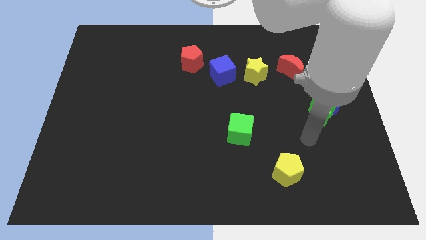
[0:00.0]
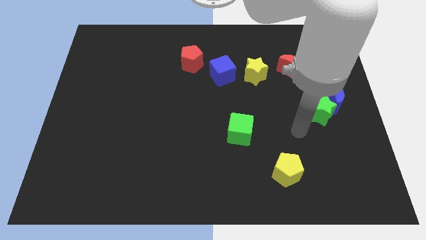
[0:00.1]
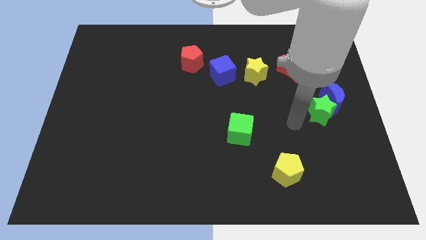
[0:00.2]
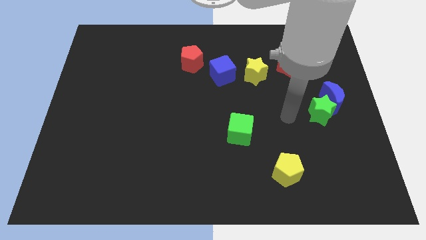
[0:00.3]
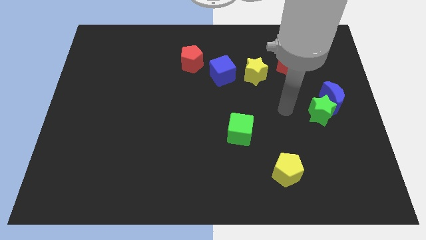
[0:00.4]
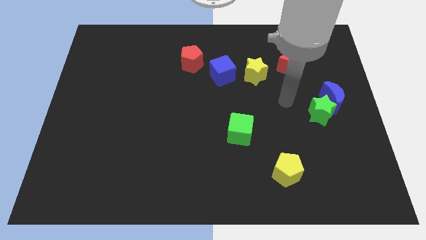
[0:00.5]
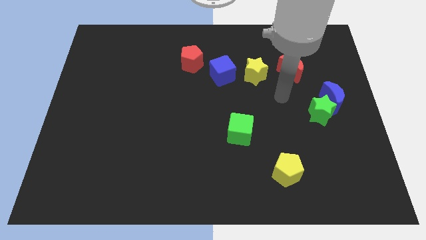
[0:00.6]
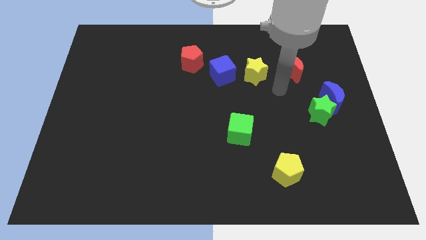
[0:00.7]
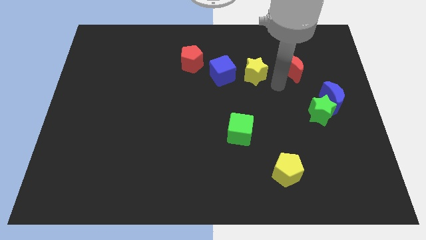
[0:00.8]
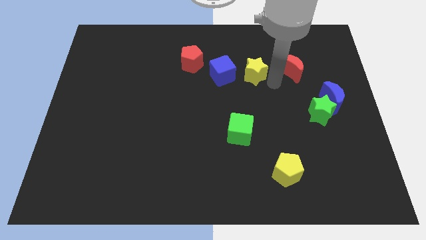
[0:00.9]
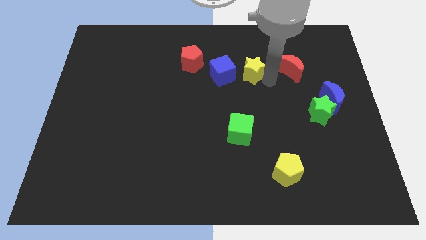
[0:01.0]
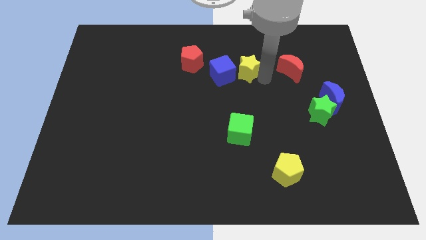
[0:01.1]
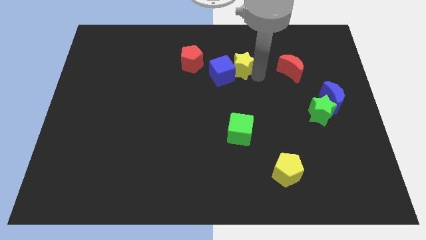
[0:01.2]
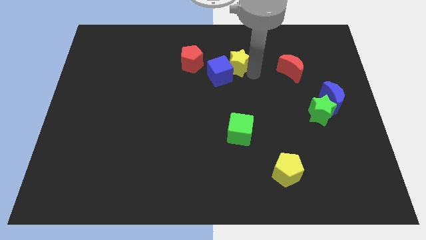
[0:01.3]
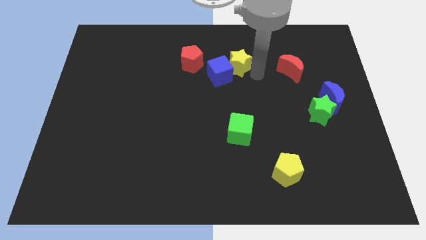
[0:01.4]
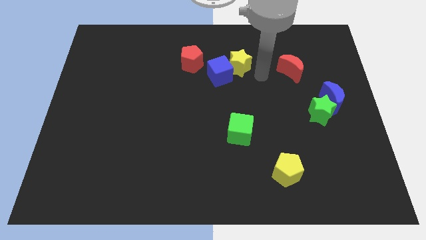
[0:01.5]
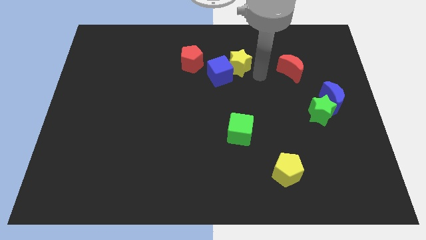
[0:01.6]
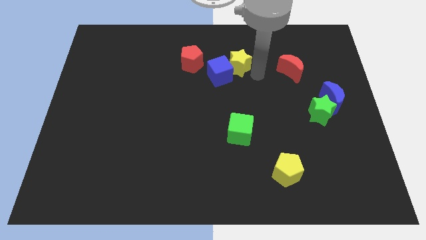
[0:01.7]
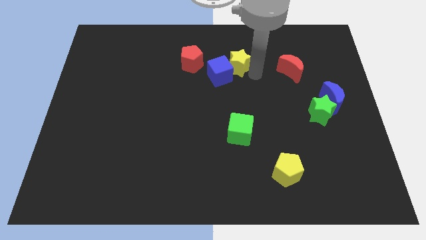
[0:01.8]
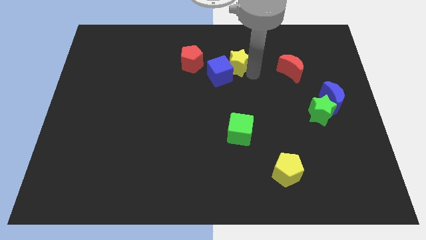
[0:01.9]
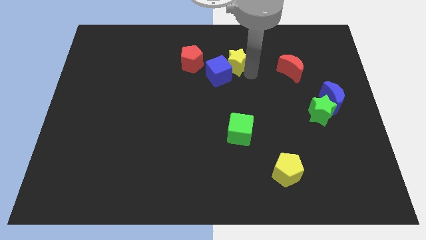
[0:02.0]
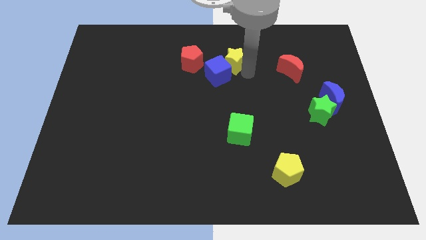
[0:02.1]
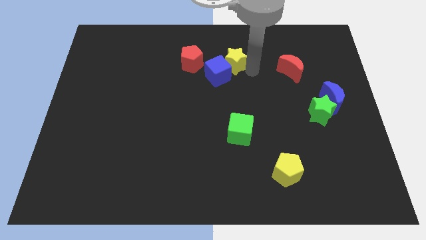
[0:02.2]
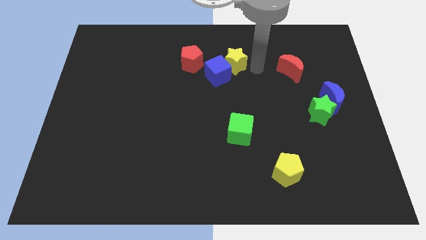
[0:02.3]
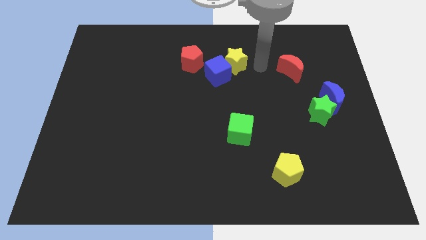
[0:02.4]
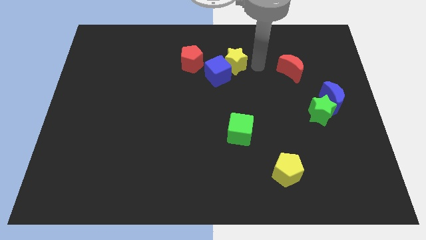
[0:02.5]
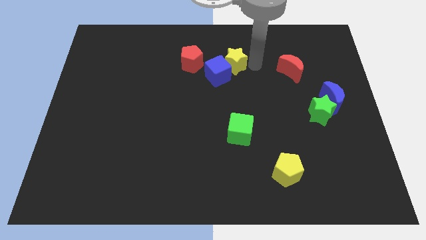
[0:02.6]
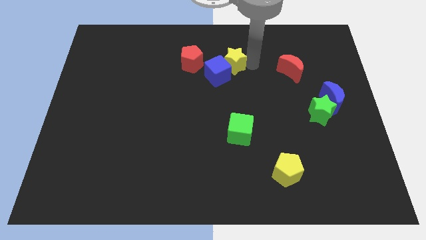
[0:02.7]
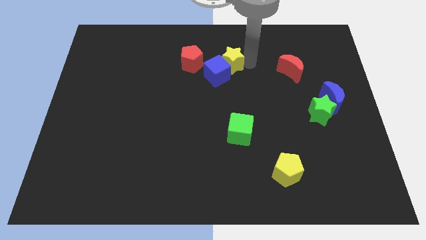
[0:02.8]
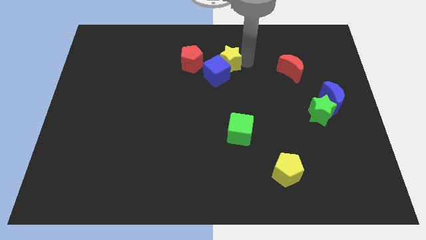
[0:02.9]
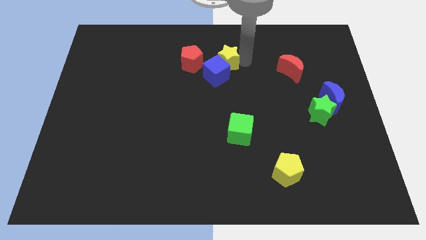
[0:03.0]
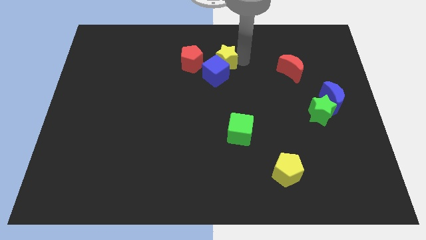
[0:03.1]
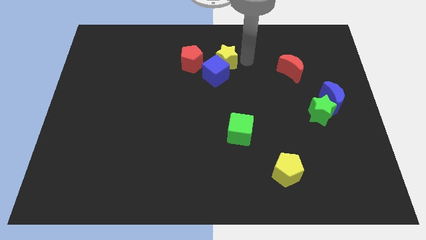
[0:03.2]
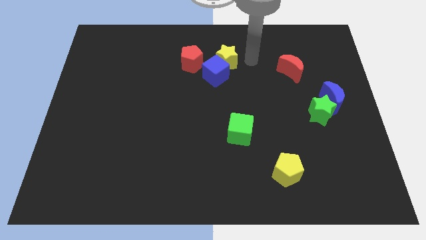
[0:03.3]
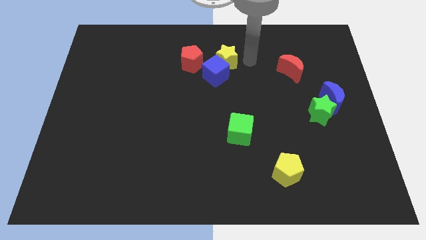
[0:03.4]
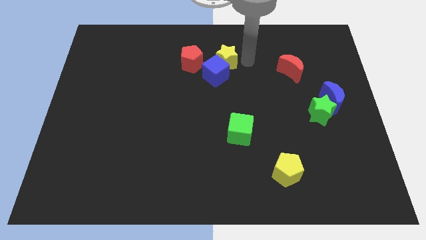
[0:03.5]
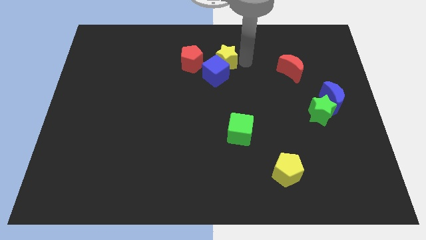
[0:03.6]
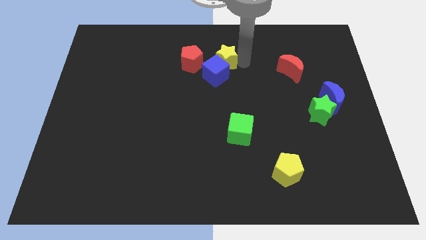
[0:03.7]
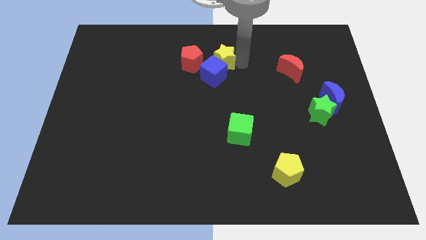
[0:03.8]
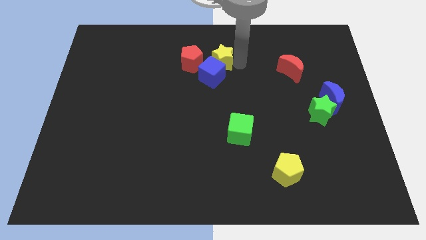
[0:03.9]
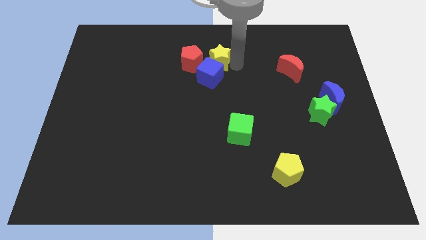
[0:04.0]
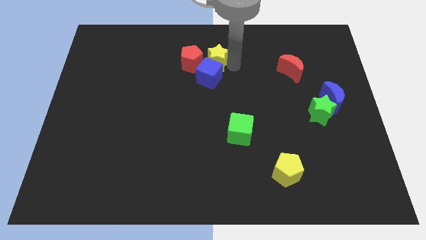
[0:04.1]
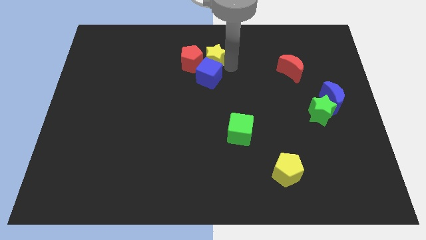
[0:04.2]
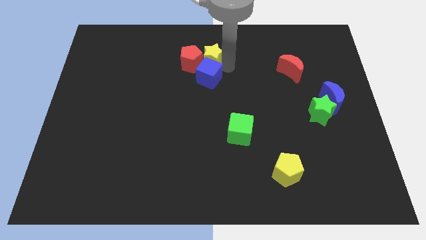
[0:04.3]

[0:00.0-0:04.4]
slide the yellow star close to the red pentagon

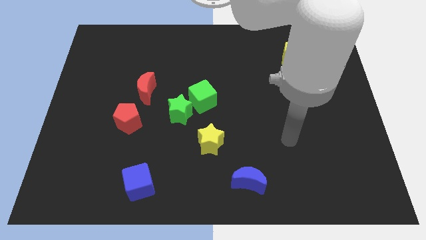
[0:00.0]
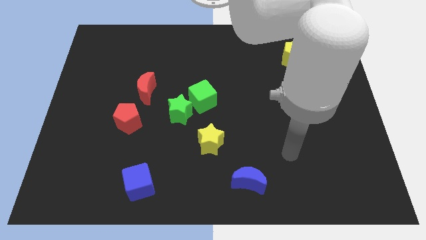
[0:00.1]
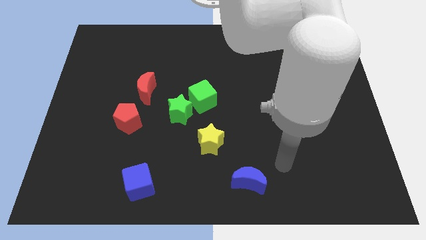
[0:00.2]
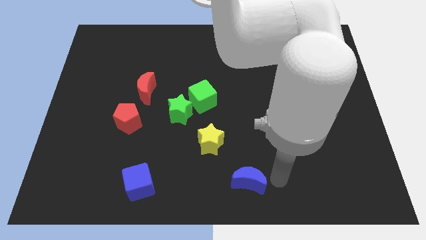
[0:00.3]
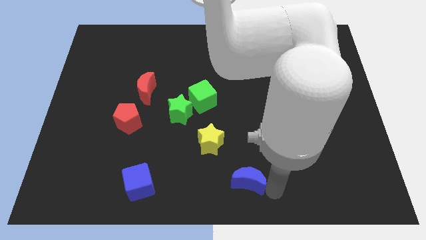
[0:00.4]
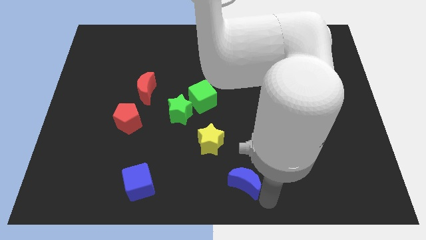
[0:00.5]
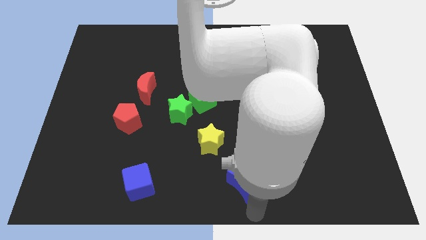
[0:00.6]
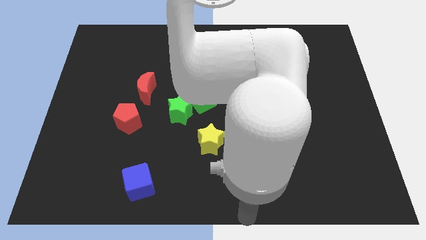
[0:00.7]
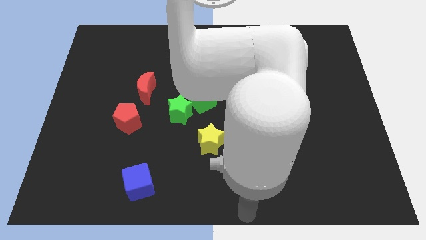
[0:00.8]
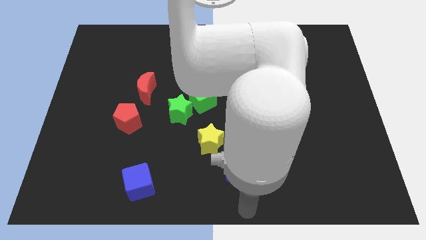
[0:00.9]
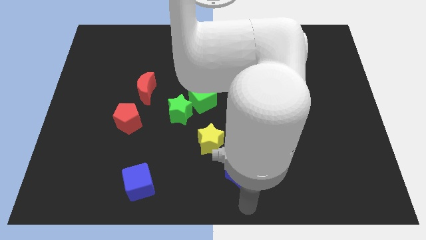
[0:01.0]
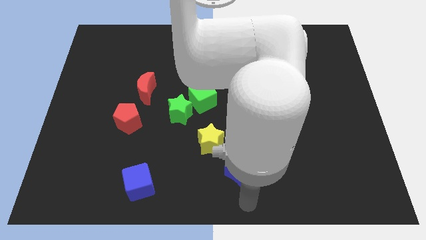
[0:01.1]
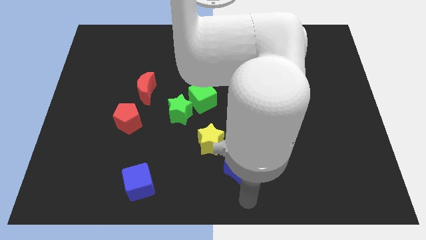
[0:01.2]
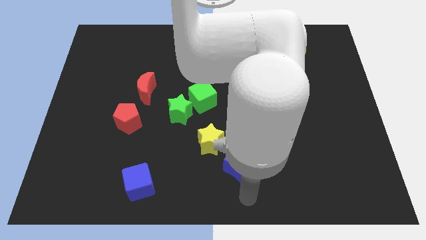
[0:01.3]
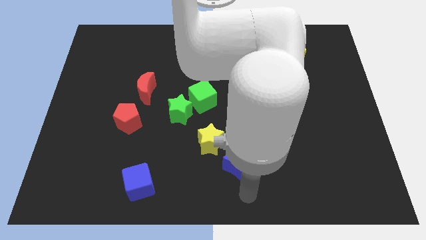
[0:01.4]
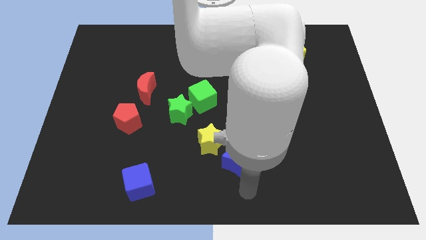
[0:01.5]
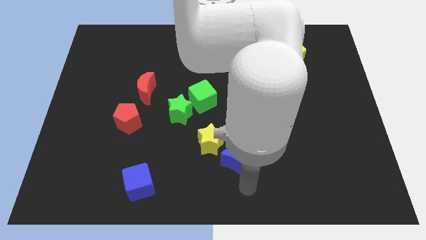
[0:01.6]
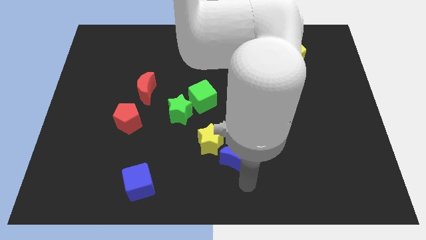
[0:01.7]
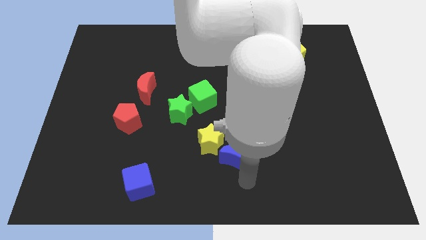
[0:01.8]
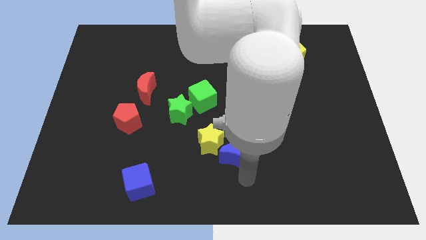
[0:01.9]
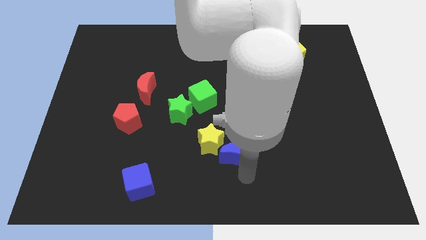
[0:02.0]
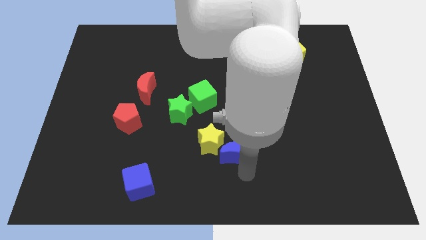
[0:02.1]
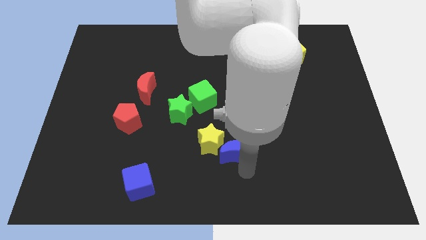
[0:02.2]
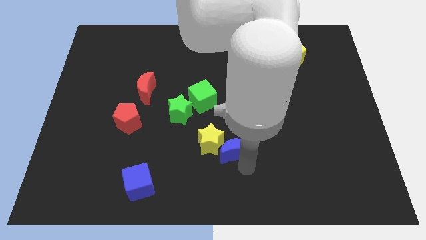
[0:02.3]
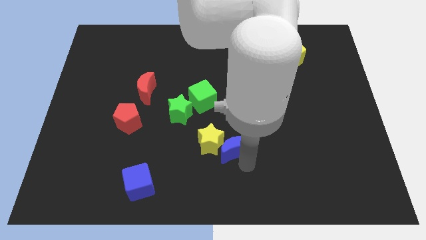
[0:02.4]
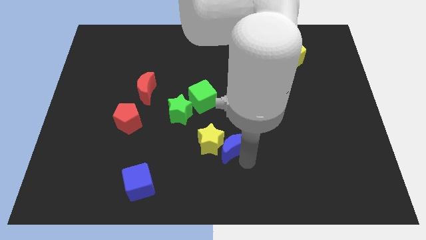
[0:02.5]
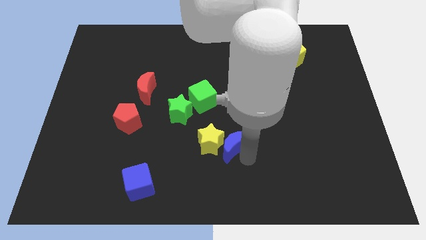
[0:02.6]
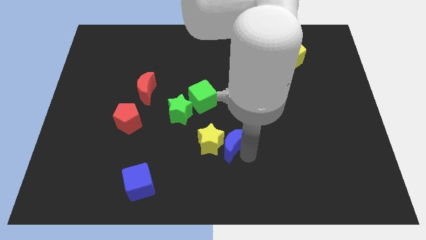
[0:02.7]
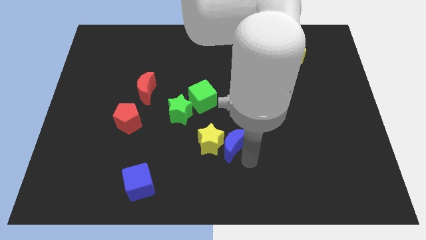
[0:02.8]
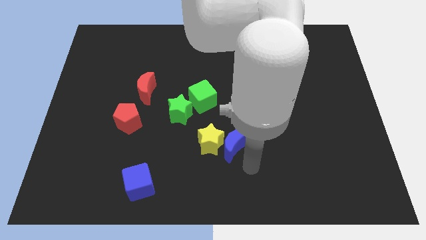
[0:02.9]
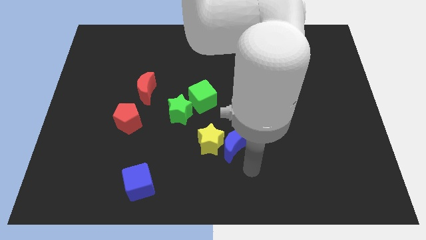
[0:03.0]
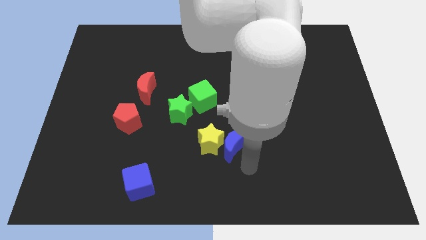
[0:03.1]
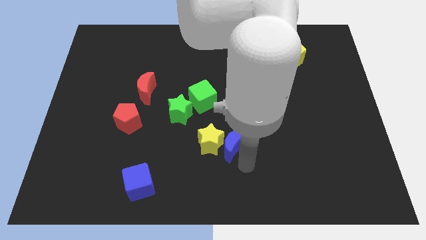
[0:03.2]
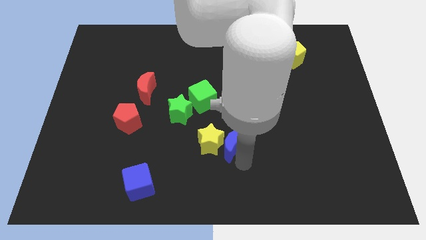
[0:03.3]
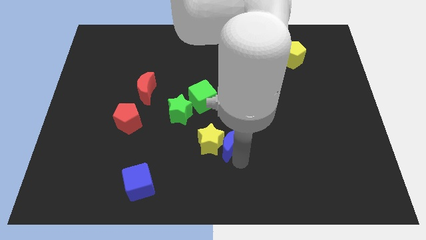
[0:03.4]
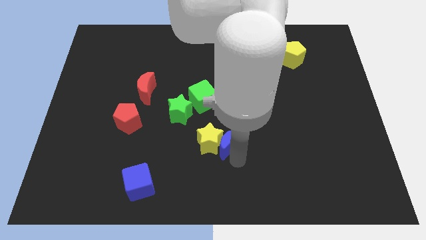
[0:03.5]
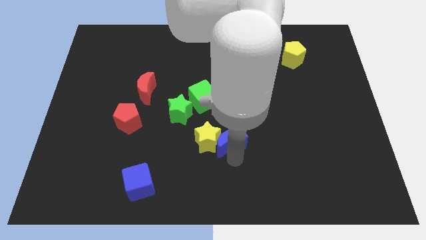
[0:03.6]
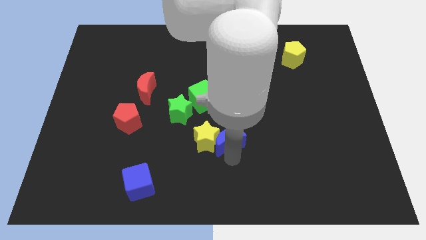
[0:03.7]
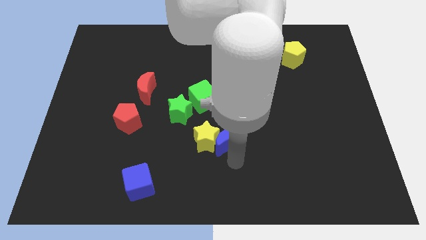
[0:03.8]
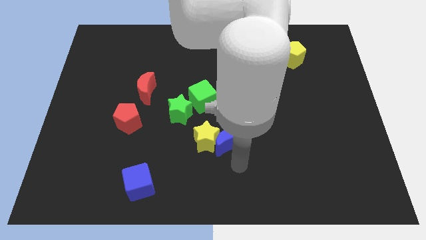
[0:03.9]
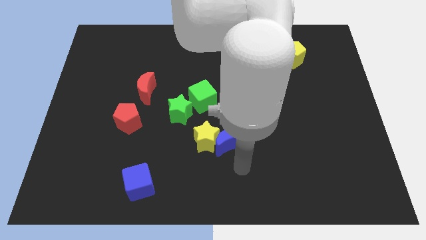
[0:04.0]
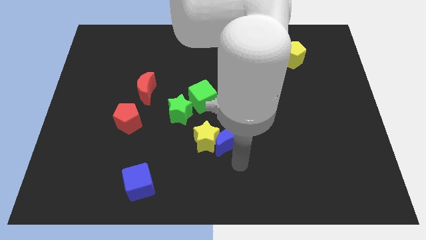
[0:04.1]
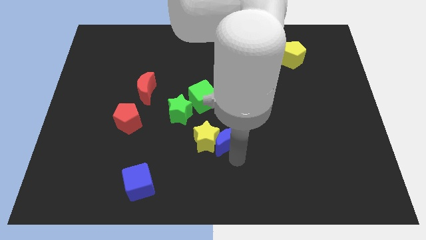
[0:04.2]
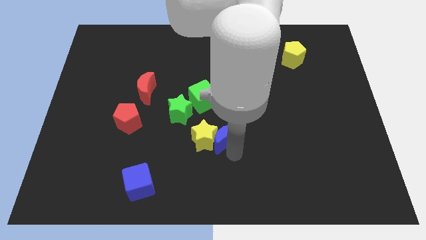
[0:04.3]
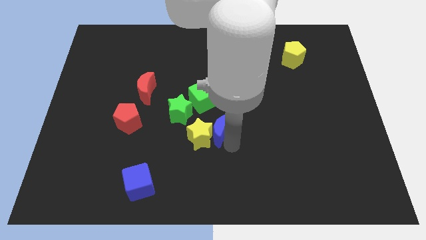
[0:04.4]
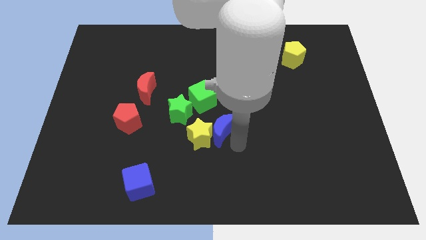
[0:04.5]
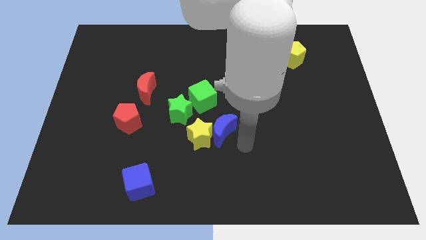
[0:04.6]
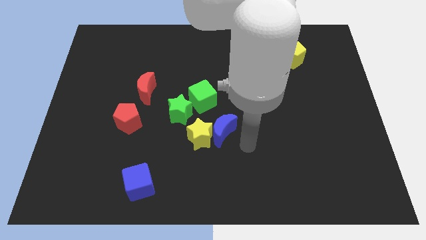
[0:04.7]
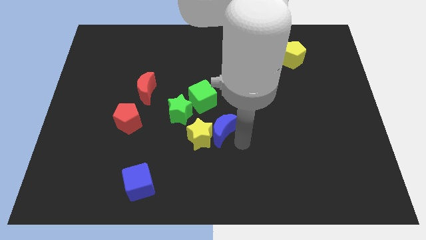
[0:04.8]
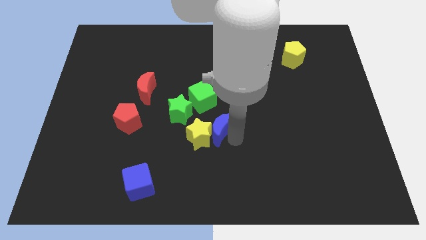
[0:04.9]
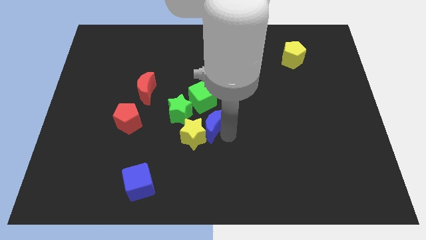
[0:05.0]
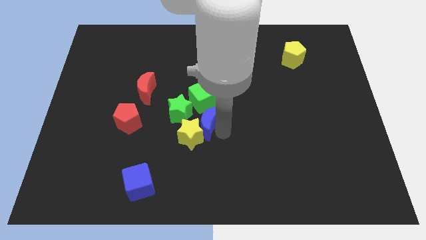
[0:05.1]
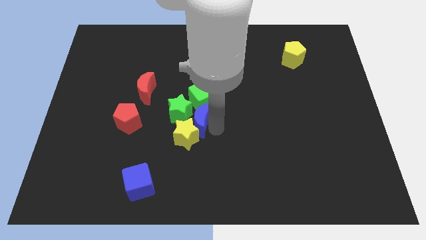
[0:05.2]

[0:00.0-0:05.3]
slide the blue moon towards the green star
